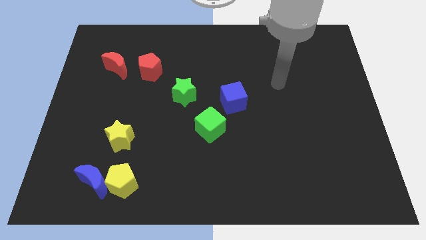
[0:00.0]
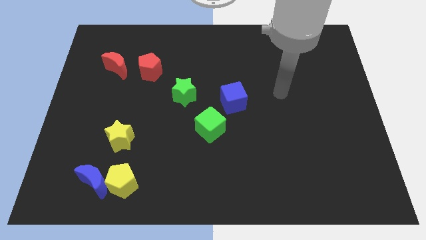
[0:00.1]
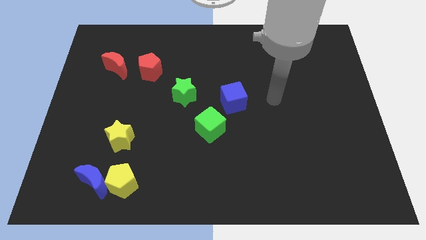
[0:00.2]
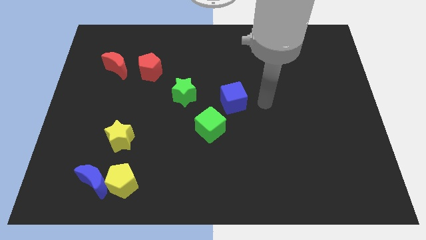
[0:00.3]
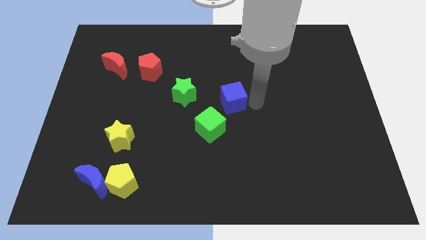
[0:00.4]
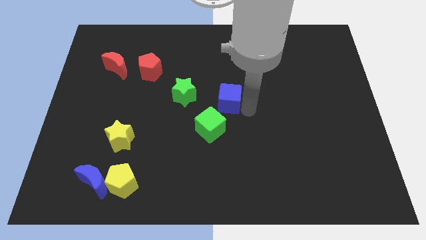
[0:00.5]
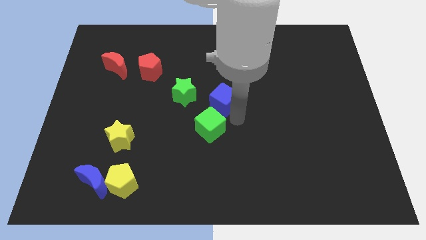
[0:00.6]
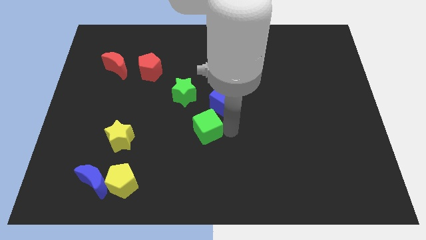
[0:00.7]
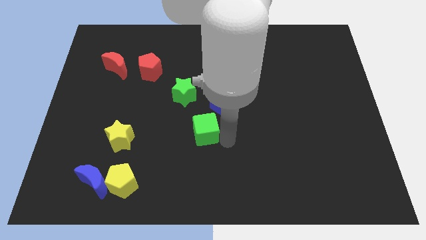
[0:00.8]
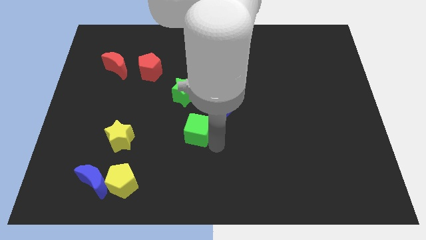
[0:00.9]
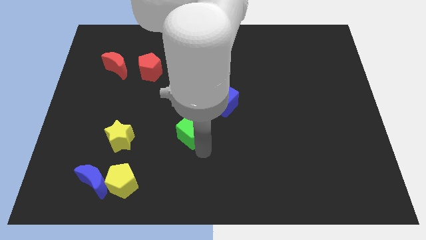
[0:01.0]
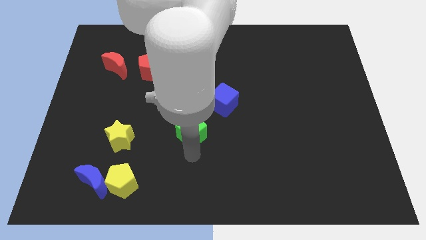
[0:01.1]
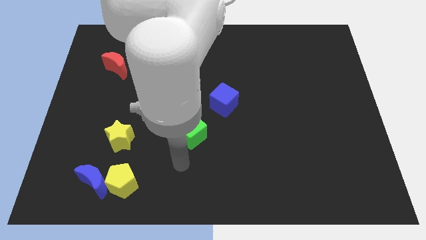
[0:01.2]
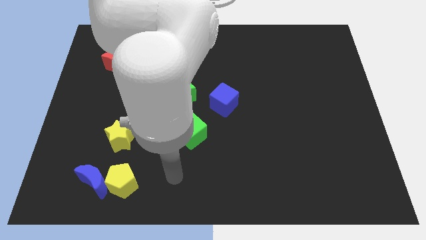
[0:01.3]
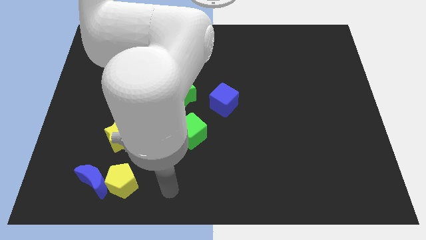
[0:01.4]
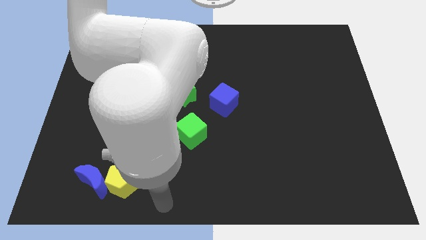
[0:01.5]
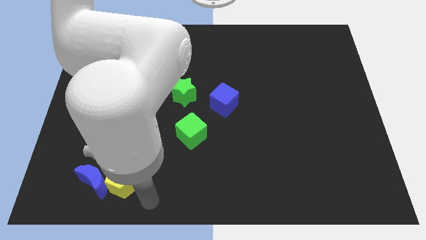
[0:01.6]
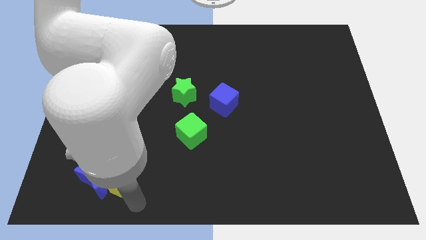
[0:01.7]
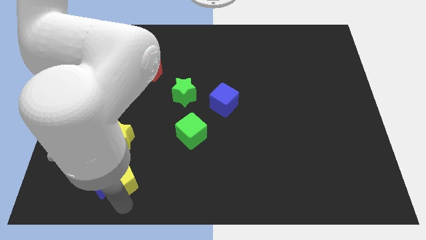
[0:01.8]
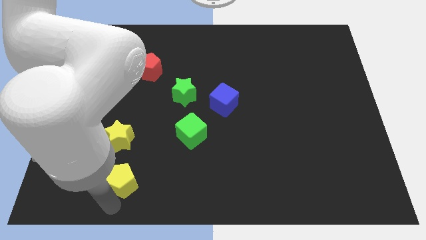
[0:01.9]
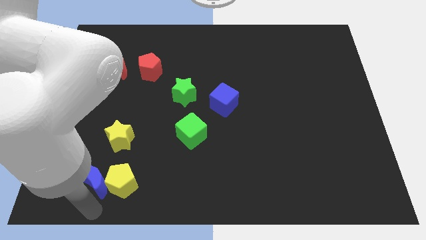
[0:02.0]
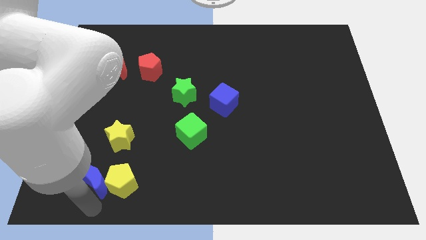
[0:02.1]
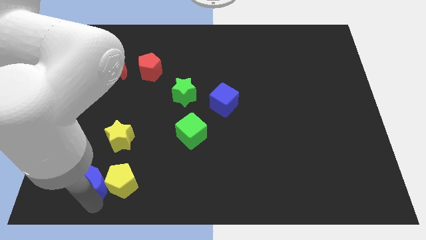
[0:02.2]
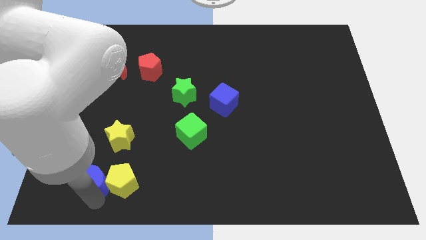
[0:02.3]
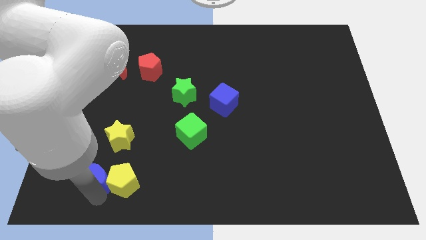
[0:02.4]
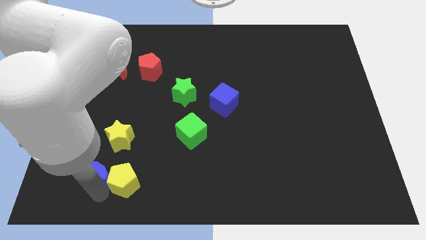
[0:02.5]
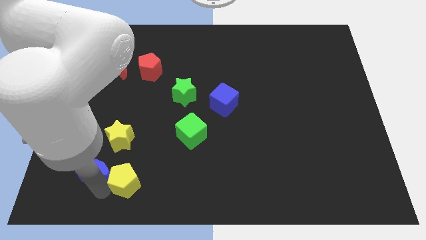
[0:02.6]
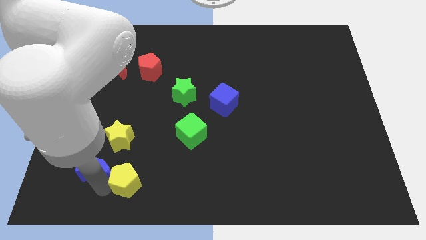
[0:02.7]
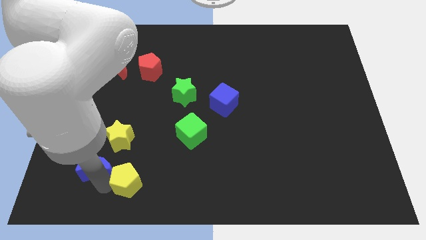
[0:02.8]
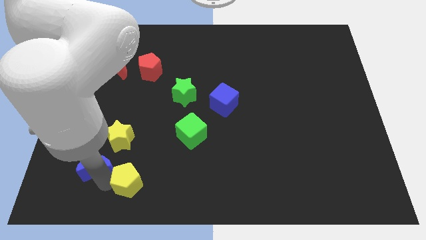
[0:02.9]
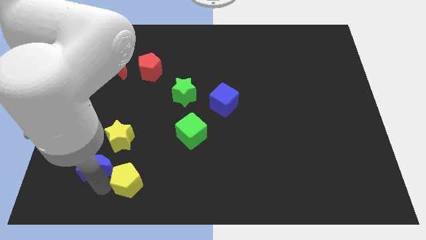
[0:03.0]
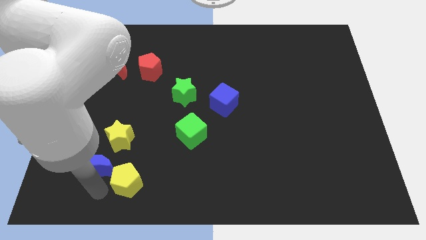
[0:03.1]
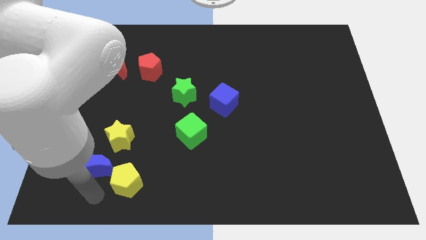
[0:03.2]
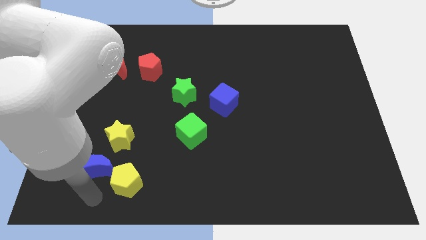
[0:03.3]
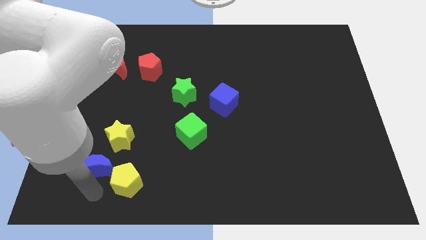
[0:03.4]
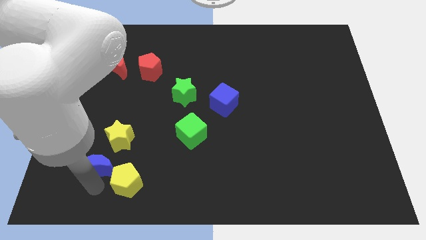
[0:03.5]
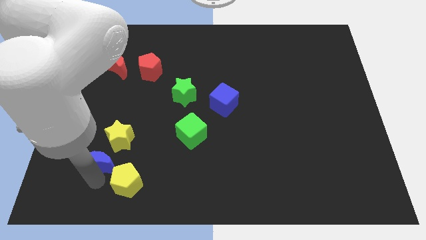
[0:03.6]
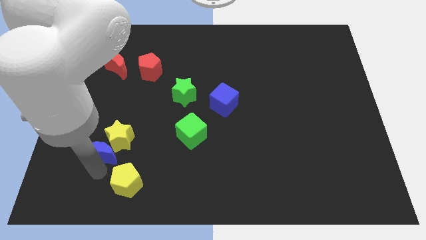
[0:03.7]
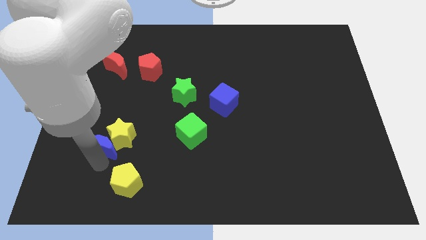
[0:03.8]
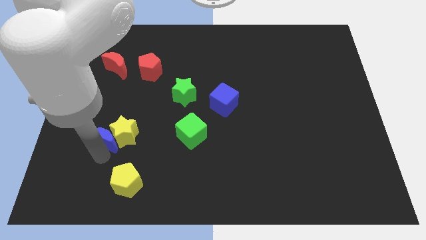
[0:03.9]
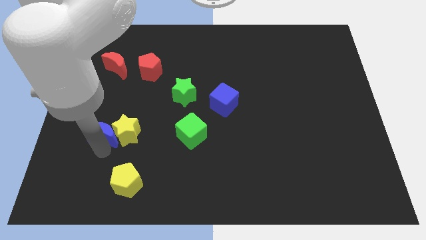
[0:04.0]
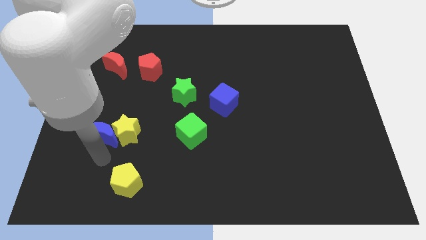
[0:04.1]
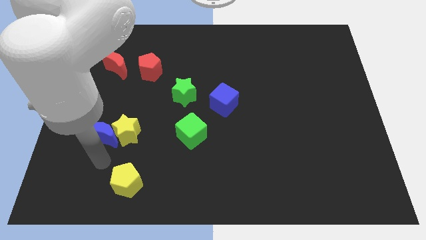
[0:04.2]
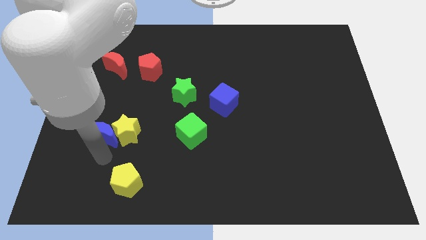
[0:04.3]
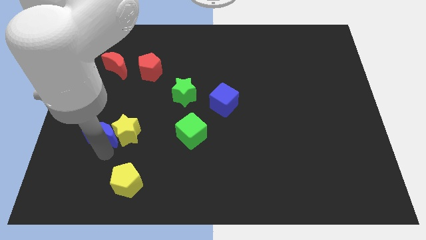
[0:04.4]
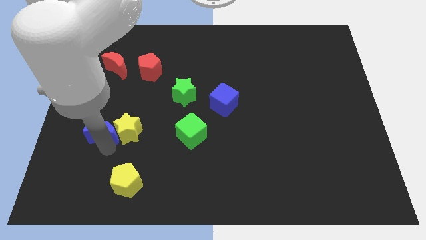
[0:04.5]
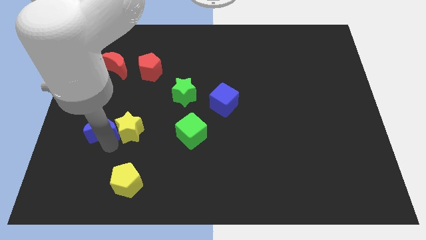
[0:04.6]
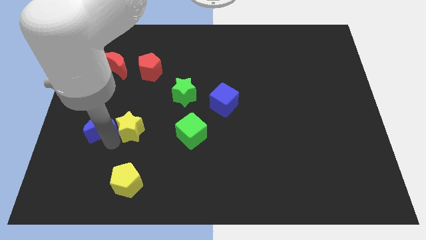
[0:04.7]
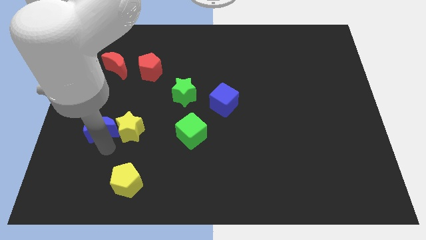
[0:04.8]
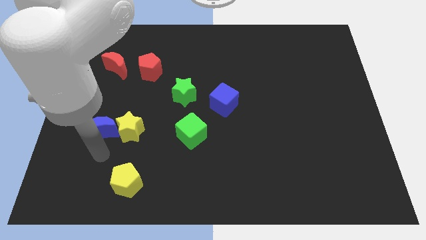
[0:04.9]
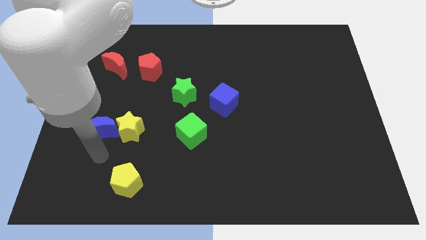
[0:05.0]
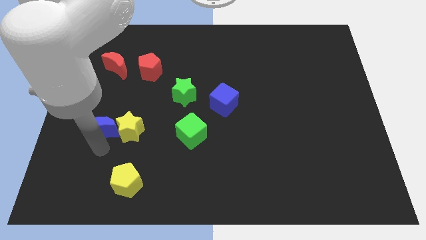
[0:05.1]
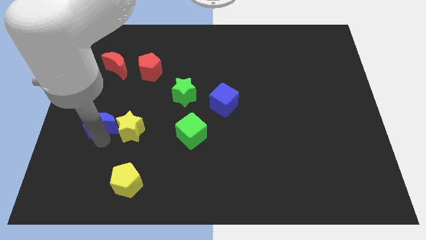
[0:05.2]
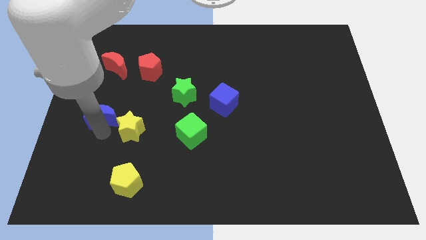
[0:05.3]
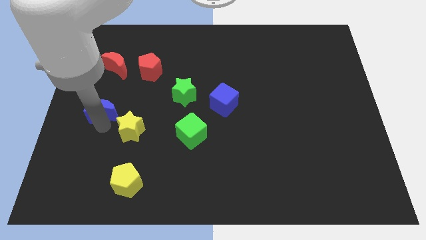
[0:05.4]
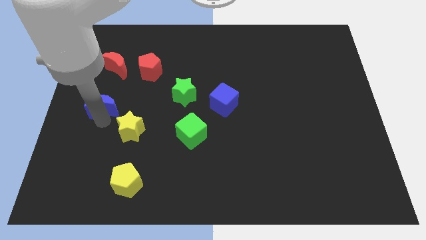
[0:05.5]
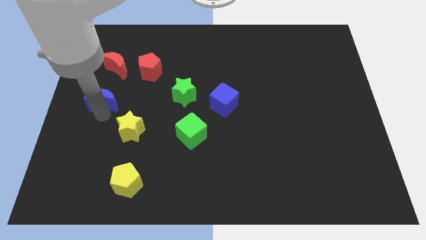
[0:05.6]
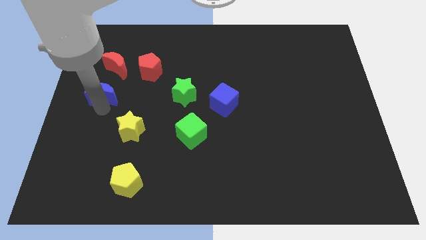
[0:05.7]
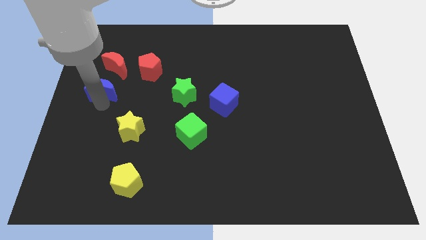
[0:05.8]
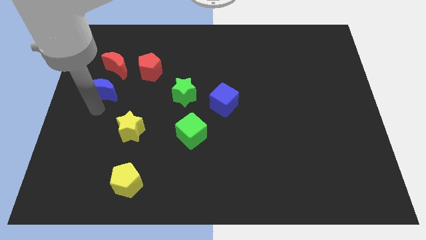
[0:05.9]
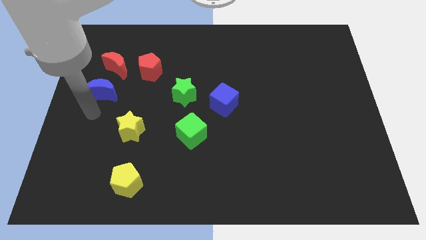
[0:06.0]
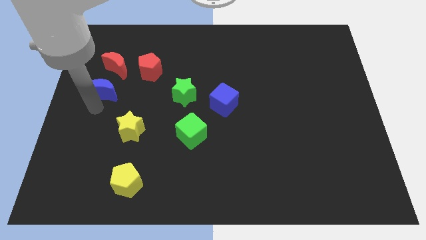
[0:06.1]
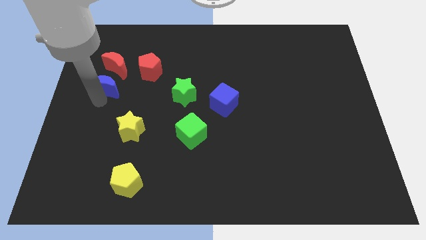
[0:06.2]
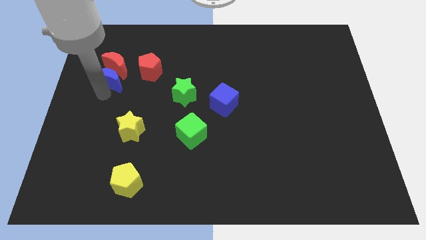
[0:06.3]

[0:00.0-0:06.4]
move the blue moon close to the red moon

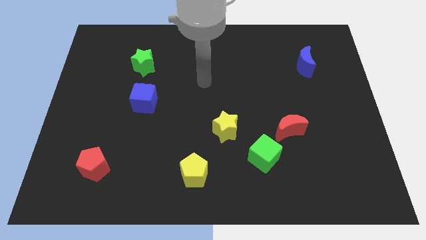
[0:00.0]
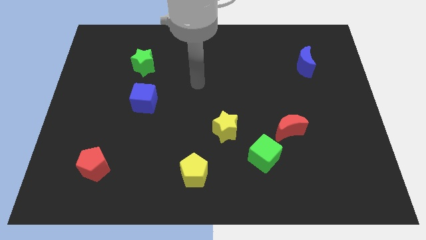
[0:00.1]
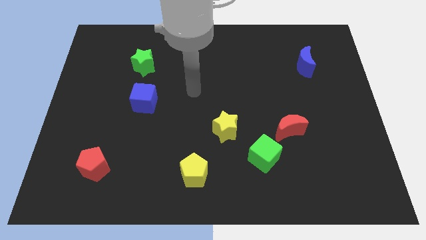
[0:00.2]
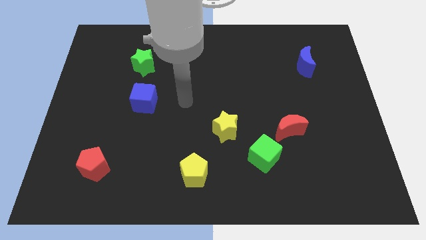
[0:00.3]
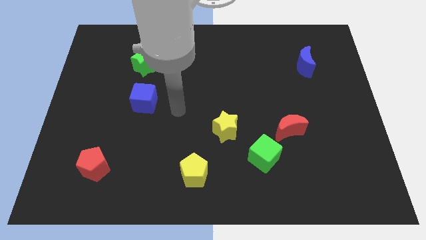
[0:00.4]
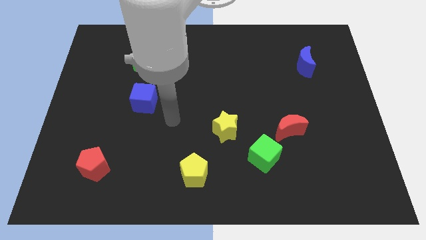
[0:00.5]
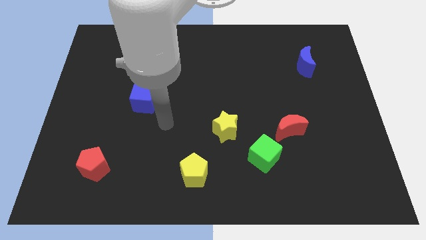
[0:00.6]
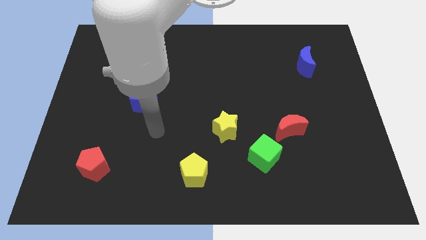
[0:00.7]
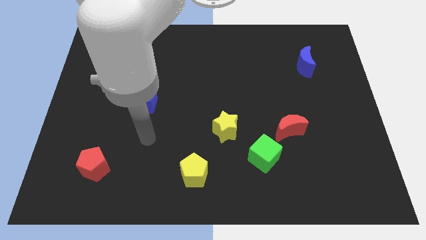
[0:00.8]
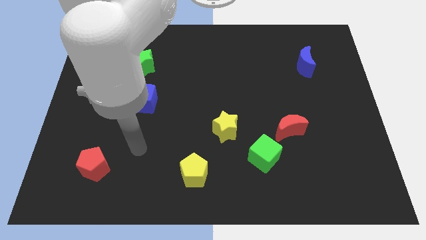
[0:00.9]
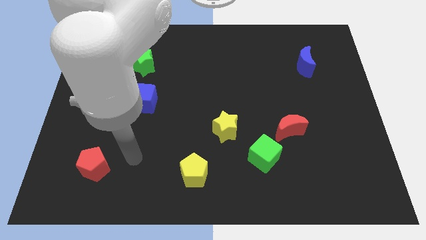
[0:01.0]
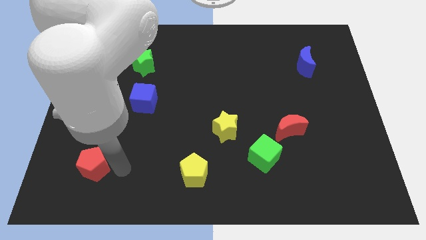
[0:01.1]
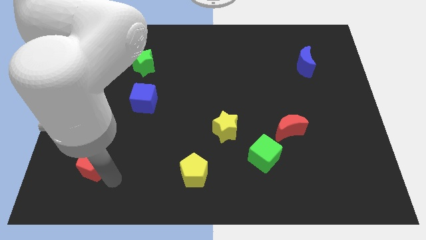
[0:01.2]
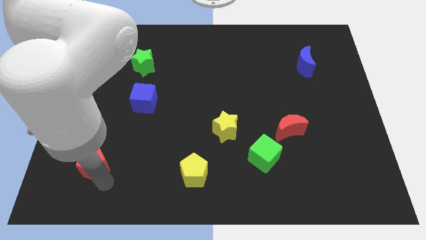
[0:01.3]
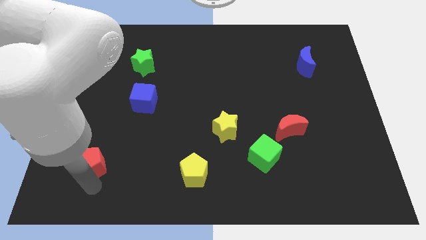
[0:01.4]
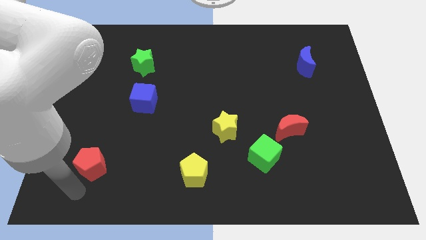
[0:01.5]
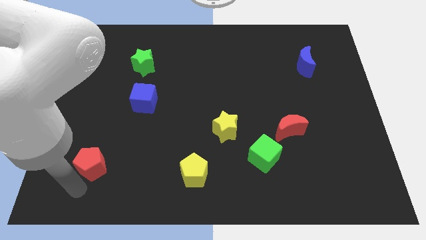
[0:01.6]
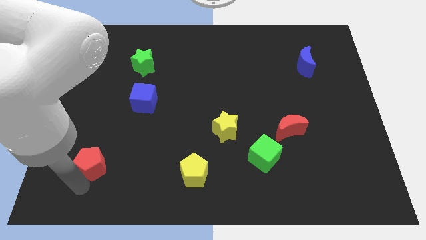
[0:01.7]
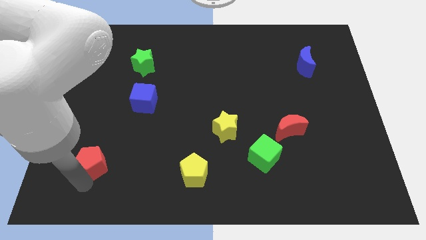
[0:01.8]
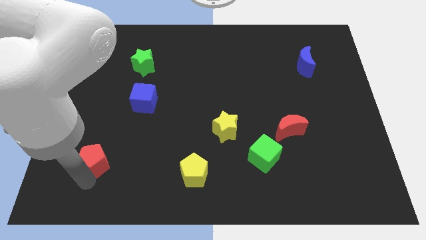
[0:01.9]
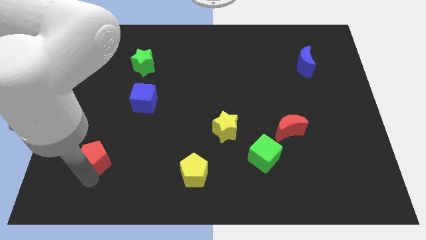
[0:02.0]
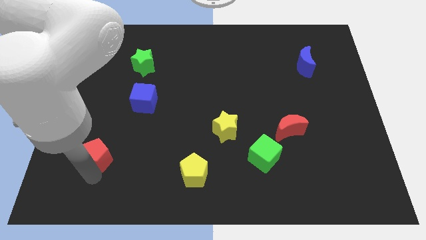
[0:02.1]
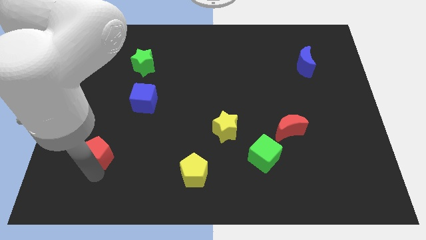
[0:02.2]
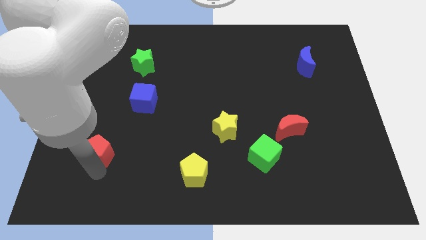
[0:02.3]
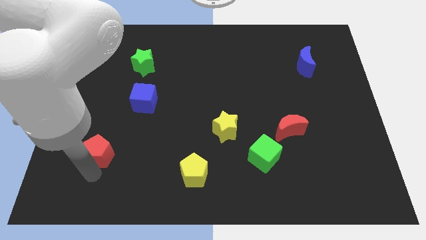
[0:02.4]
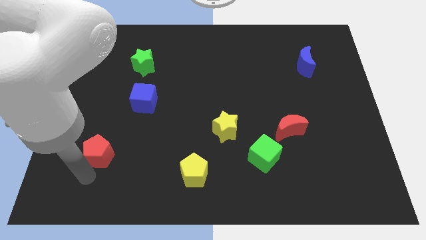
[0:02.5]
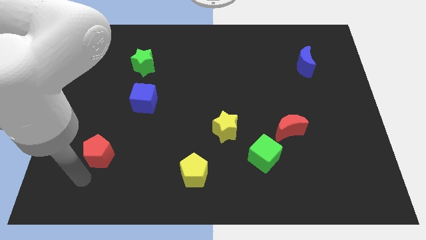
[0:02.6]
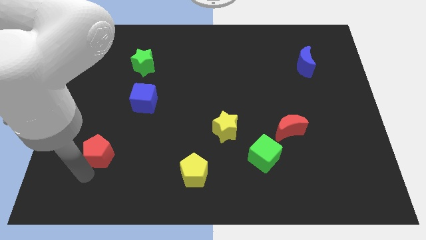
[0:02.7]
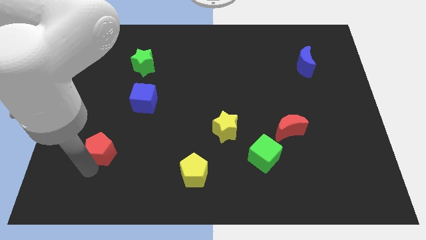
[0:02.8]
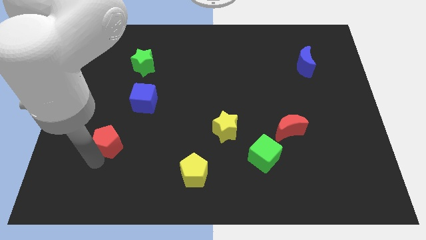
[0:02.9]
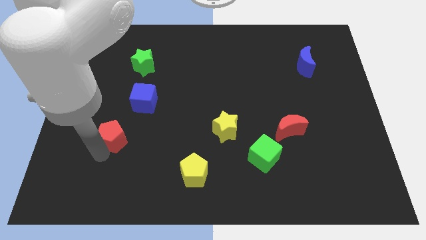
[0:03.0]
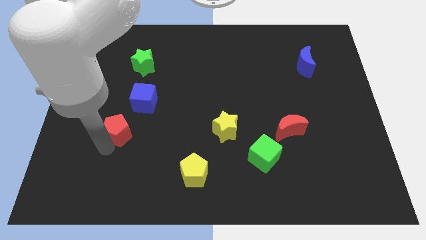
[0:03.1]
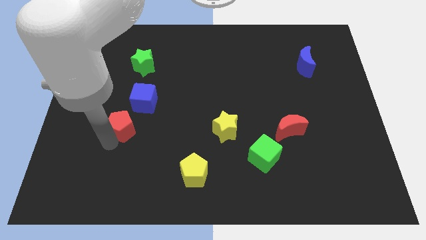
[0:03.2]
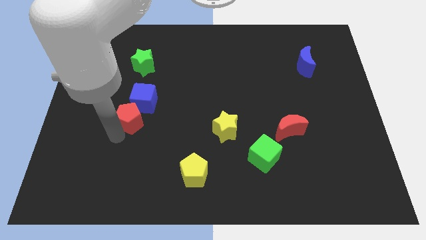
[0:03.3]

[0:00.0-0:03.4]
slide the red pentagon close to the blue cube
